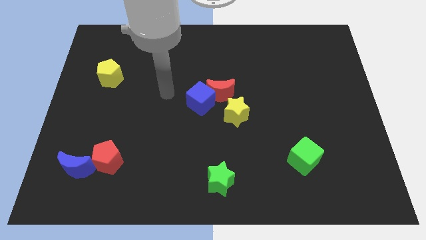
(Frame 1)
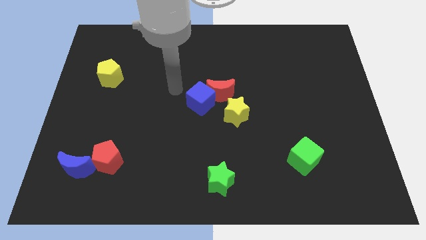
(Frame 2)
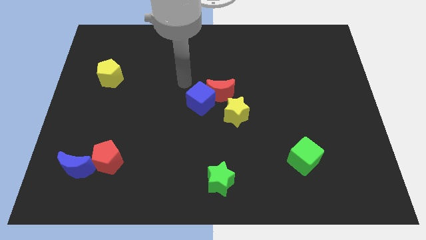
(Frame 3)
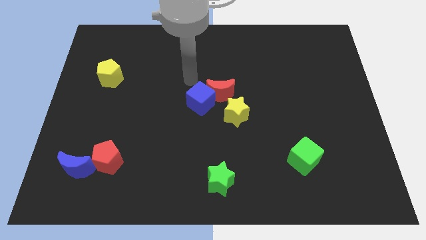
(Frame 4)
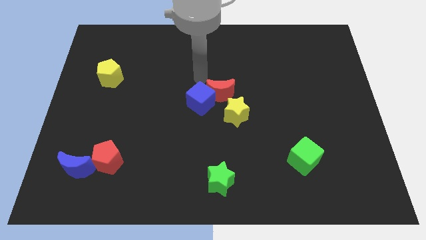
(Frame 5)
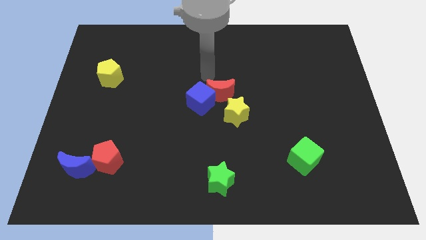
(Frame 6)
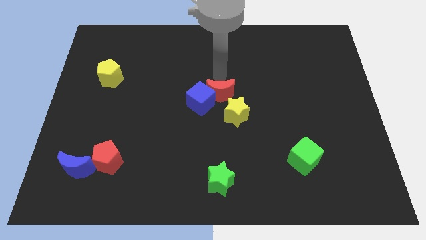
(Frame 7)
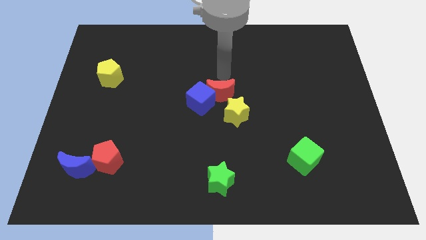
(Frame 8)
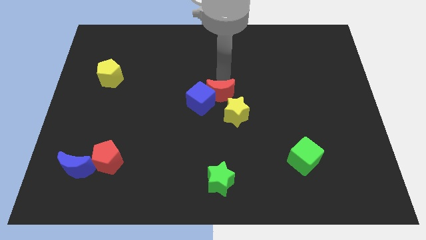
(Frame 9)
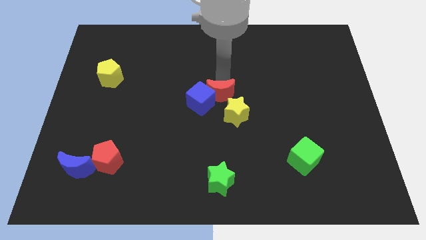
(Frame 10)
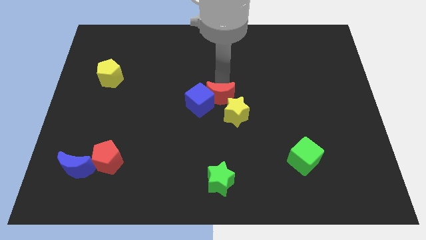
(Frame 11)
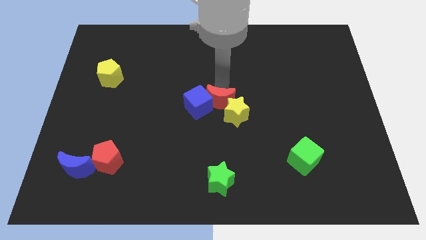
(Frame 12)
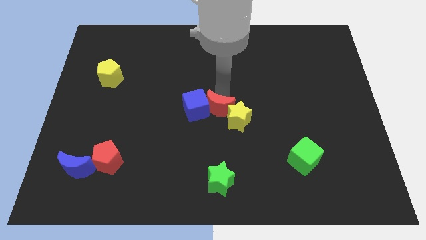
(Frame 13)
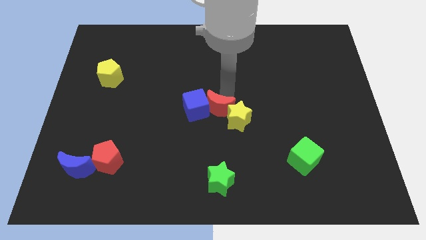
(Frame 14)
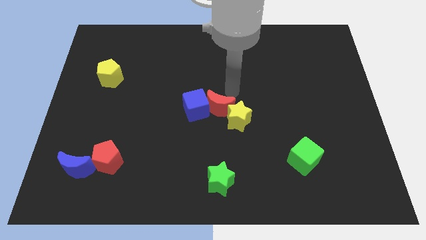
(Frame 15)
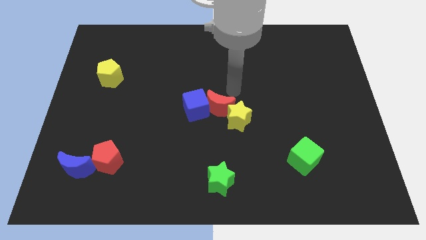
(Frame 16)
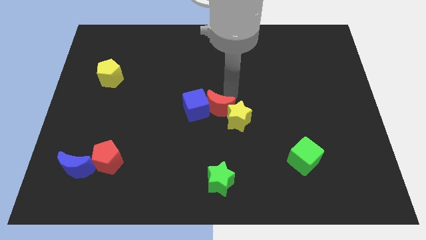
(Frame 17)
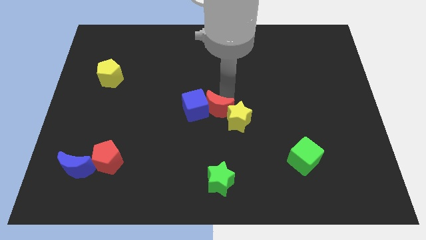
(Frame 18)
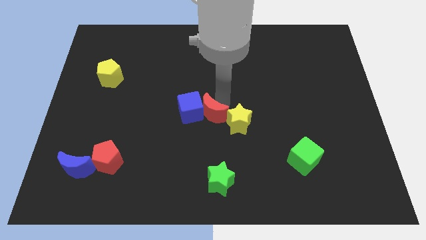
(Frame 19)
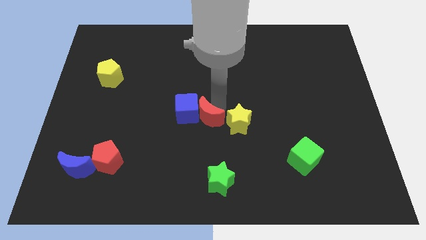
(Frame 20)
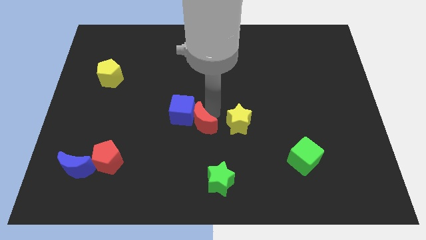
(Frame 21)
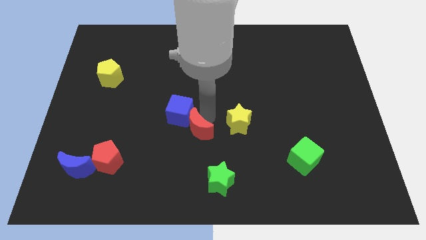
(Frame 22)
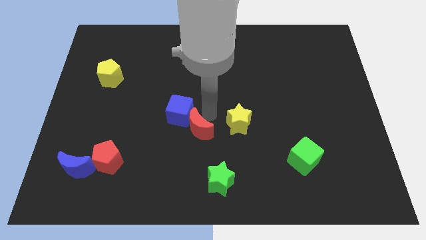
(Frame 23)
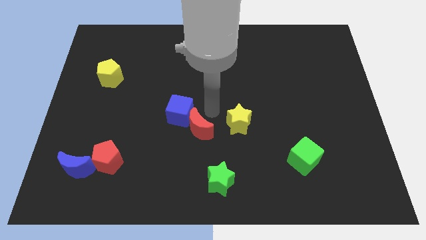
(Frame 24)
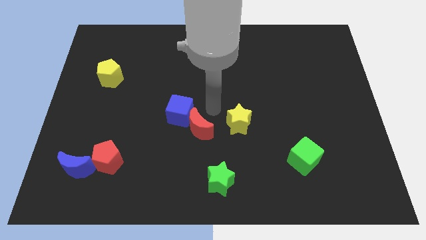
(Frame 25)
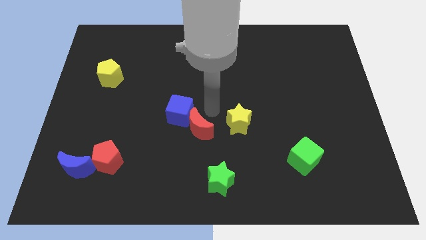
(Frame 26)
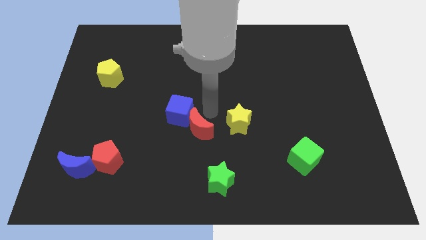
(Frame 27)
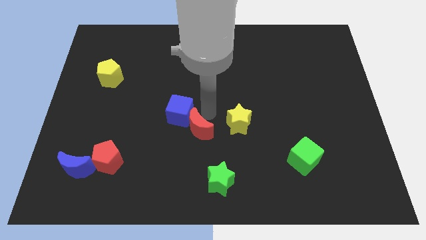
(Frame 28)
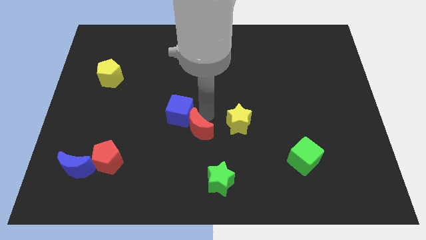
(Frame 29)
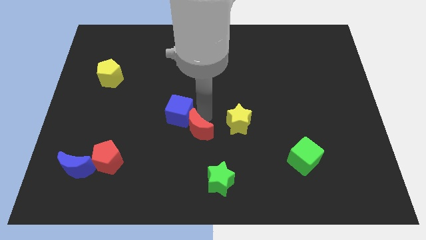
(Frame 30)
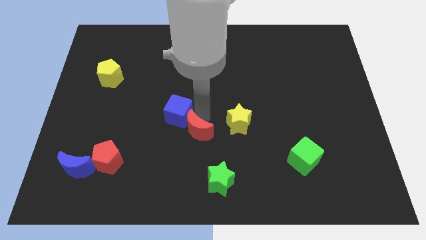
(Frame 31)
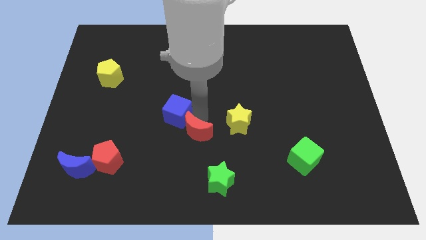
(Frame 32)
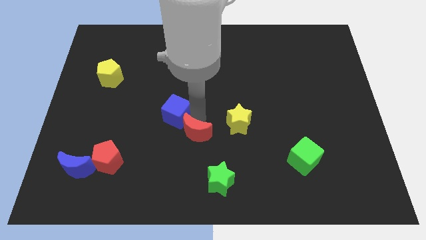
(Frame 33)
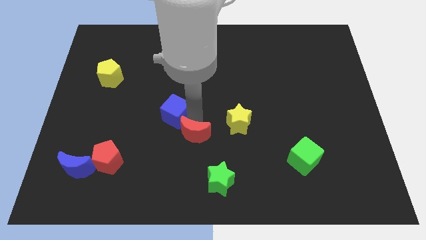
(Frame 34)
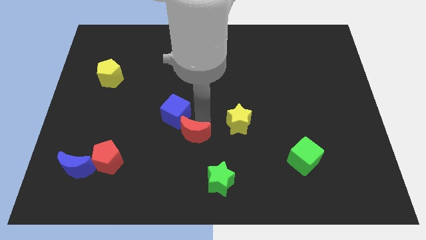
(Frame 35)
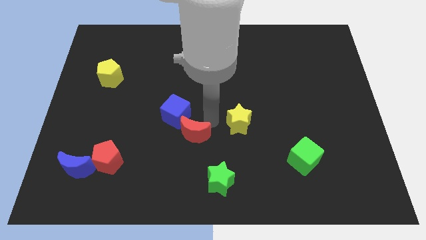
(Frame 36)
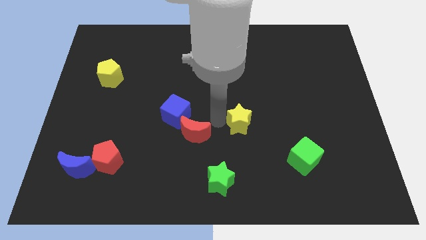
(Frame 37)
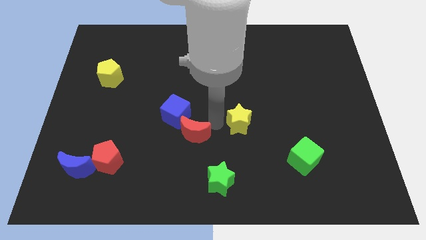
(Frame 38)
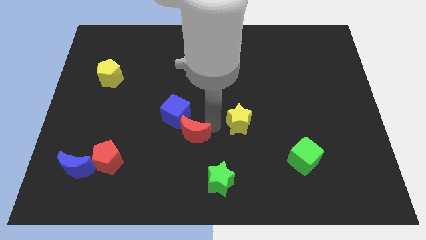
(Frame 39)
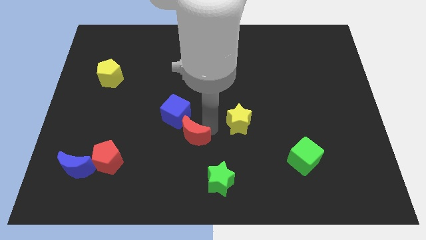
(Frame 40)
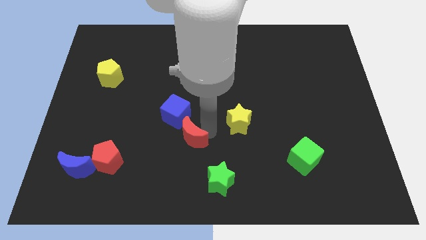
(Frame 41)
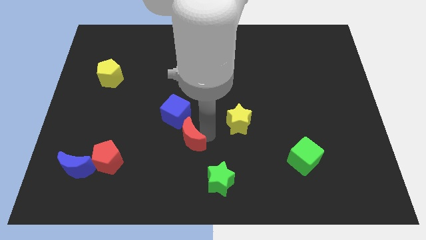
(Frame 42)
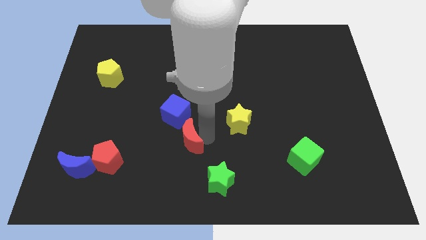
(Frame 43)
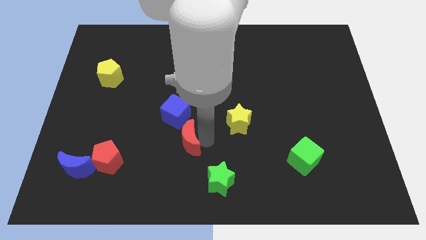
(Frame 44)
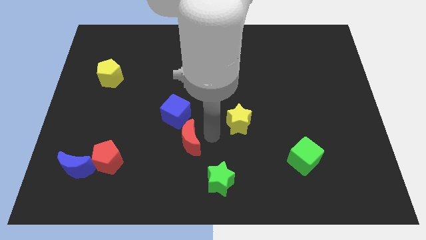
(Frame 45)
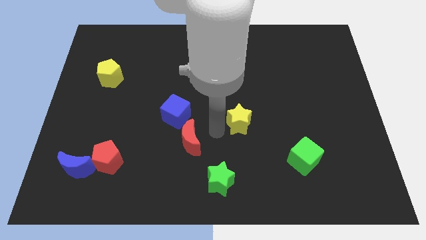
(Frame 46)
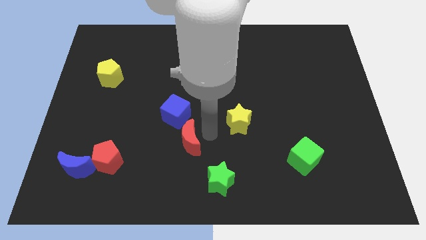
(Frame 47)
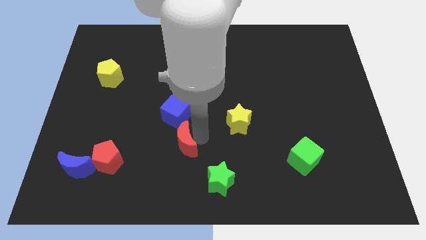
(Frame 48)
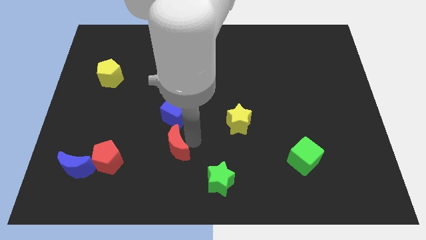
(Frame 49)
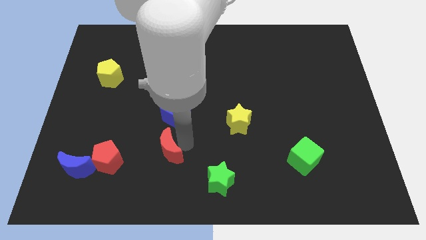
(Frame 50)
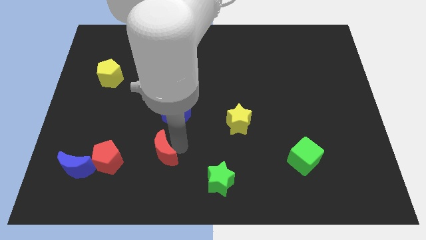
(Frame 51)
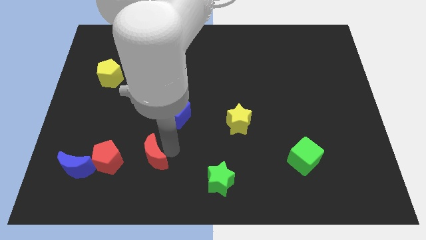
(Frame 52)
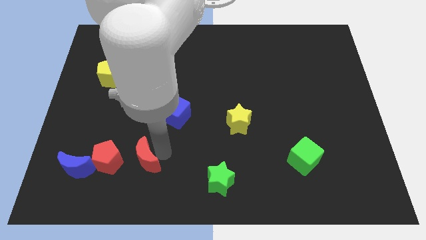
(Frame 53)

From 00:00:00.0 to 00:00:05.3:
push the red moon just right of the blue moon
